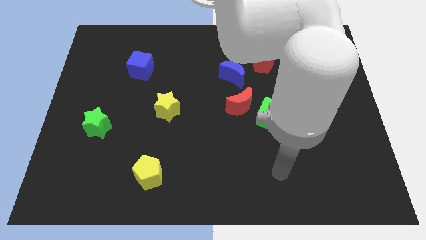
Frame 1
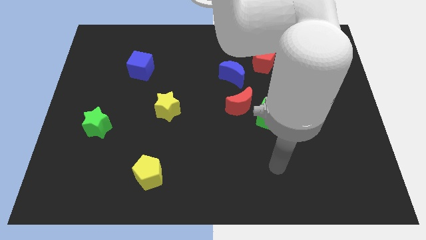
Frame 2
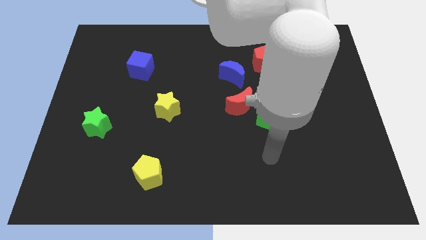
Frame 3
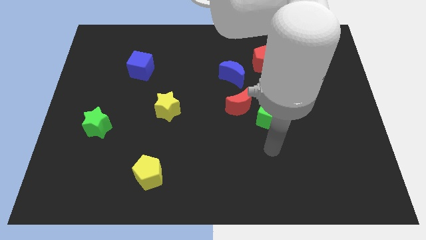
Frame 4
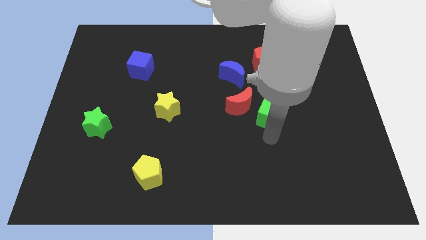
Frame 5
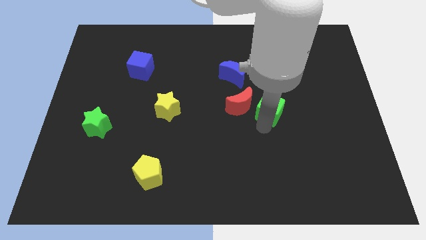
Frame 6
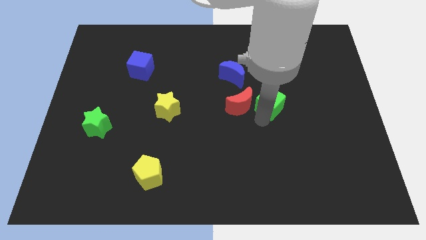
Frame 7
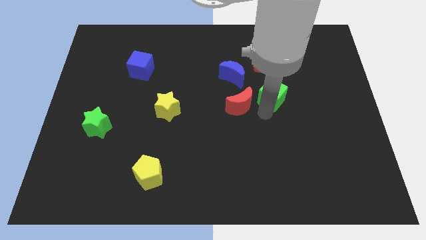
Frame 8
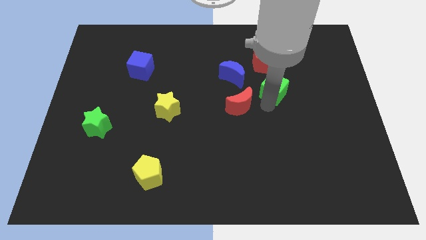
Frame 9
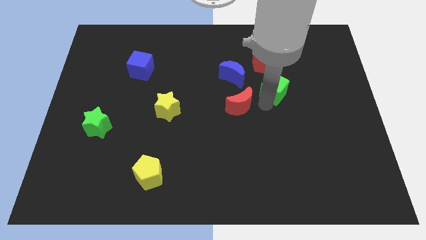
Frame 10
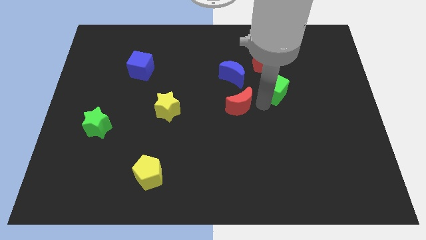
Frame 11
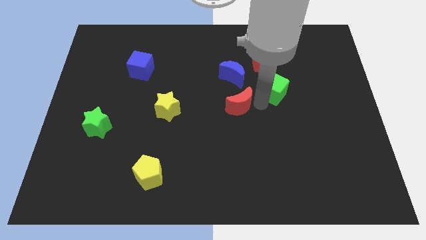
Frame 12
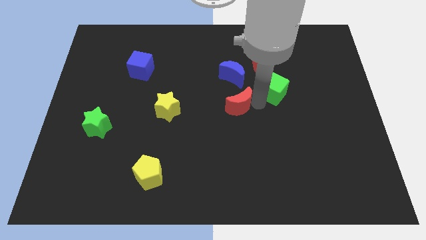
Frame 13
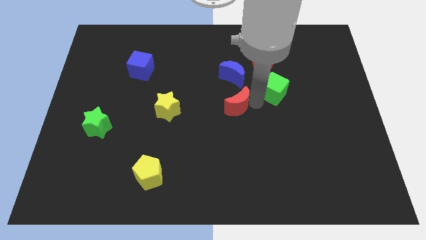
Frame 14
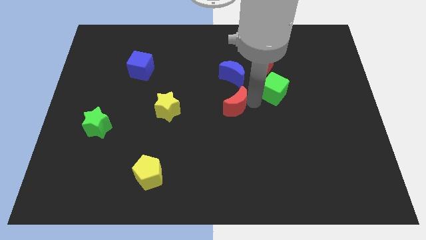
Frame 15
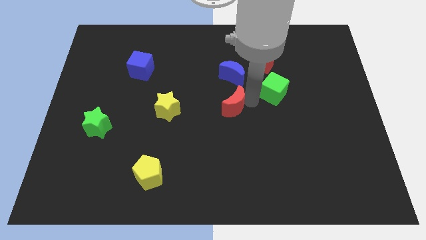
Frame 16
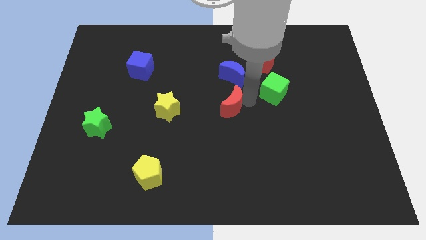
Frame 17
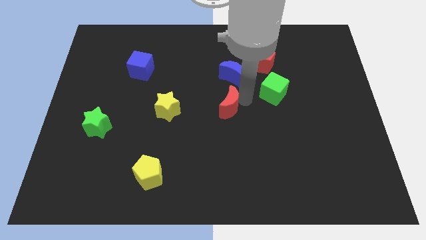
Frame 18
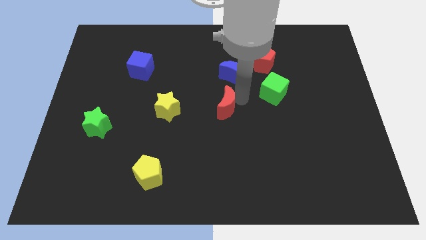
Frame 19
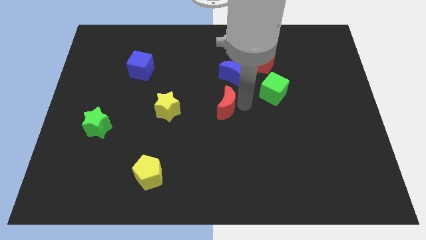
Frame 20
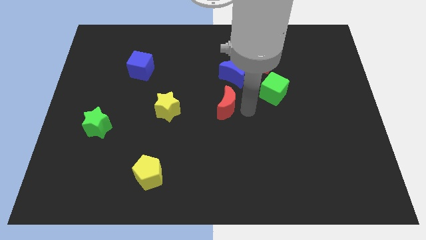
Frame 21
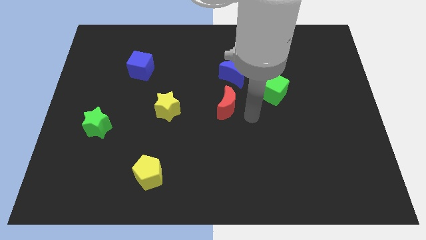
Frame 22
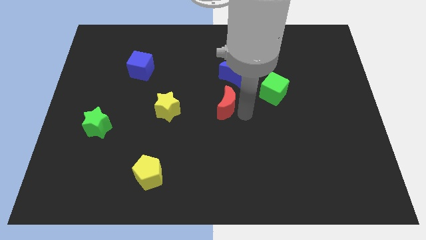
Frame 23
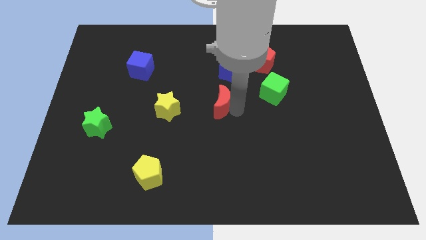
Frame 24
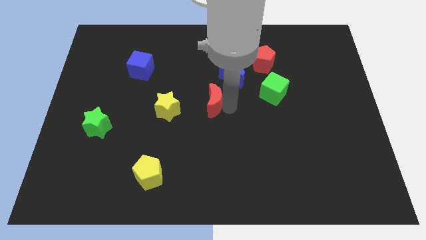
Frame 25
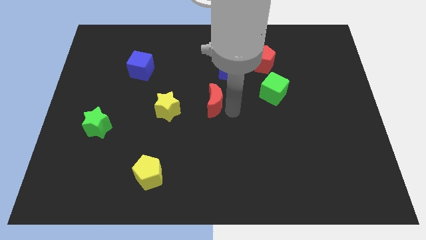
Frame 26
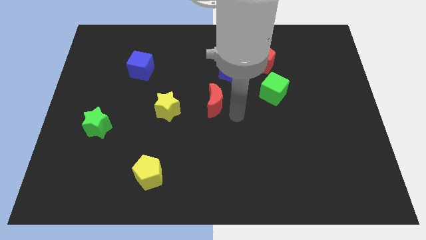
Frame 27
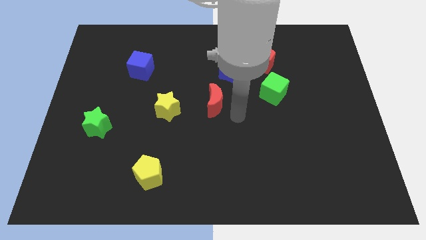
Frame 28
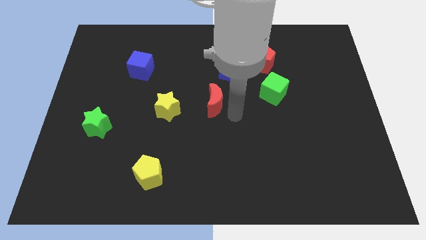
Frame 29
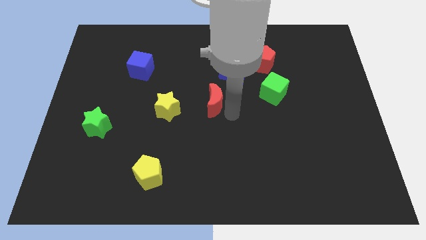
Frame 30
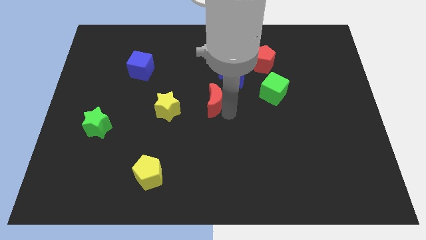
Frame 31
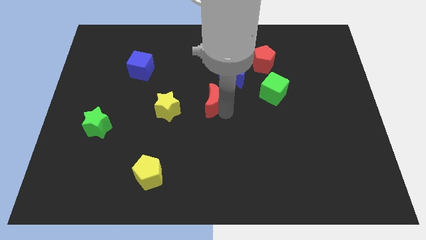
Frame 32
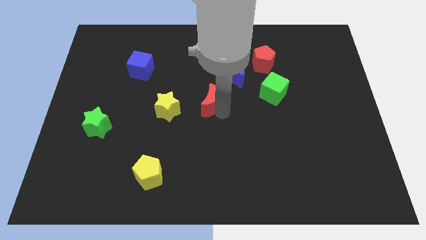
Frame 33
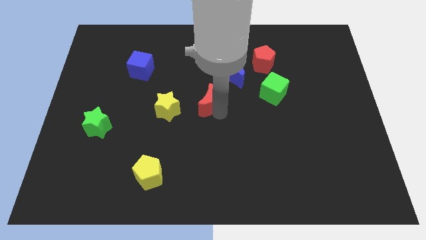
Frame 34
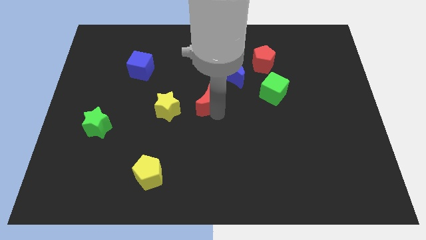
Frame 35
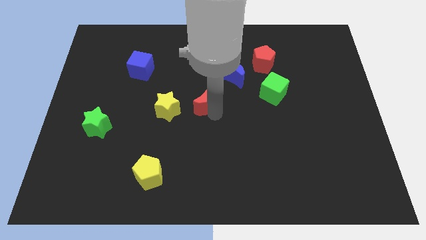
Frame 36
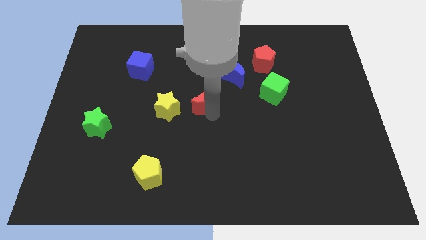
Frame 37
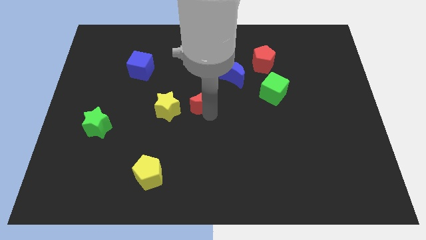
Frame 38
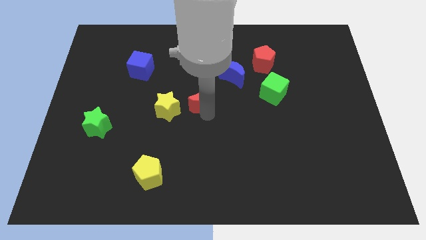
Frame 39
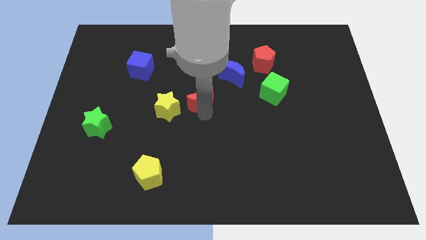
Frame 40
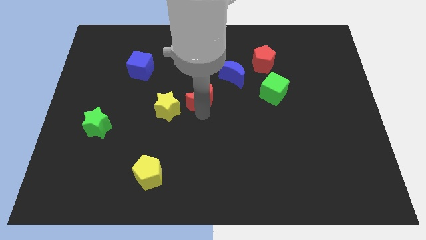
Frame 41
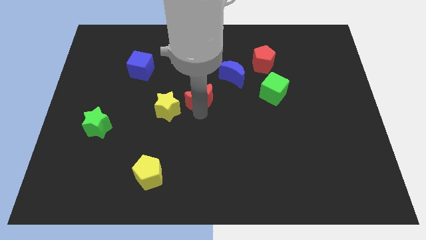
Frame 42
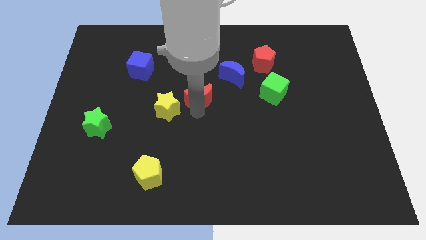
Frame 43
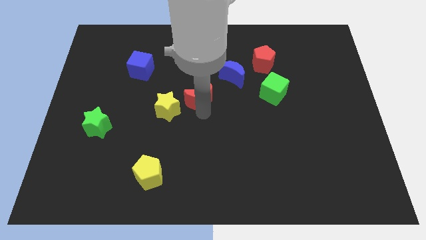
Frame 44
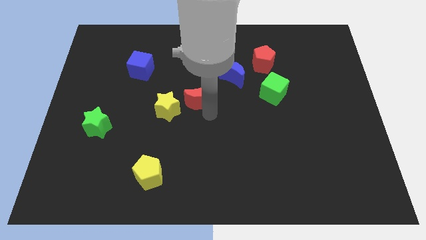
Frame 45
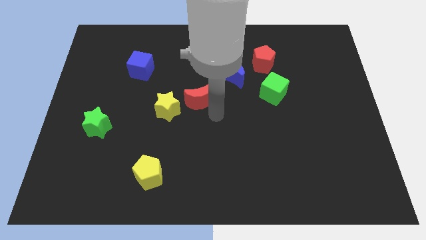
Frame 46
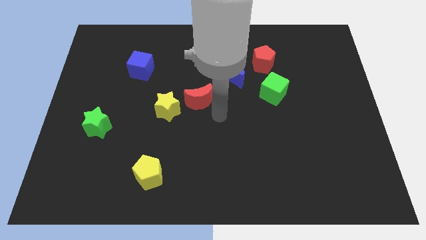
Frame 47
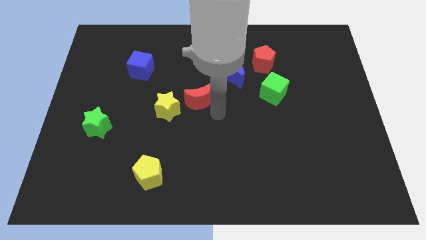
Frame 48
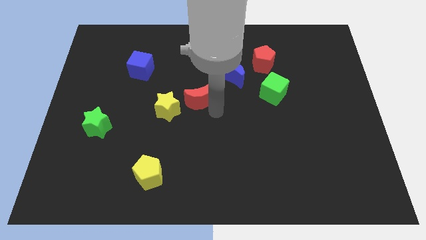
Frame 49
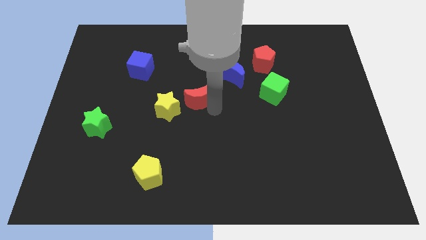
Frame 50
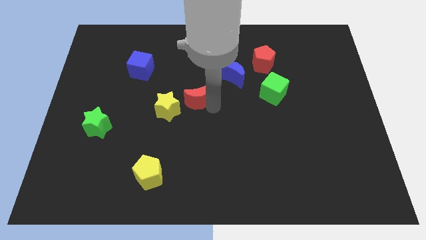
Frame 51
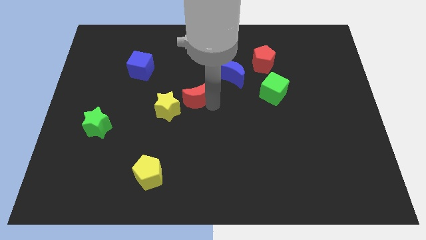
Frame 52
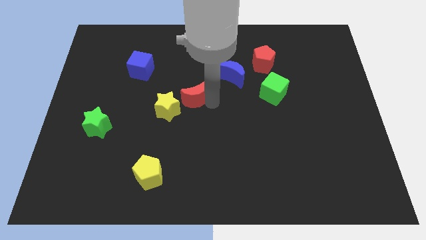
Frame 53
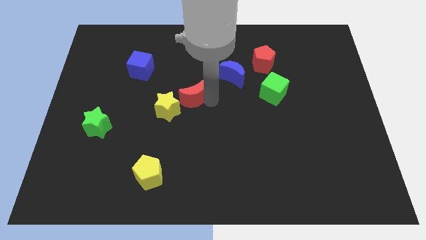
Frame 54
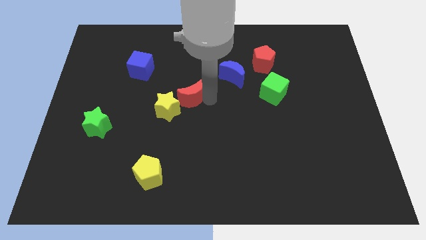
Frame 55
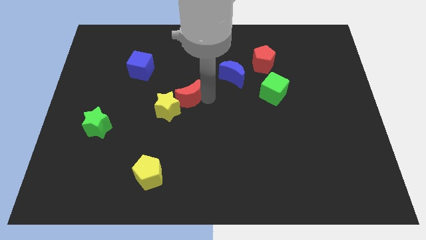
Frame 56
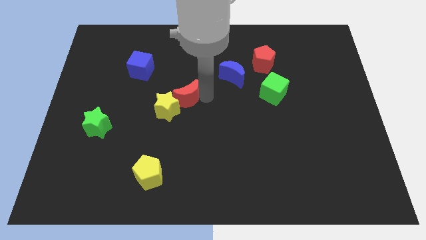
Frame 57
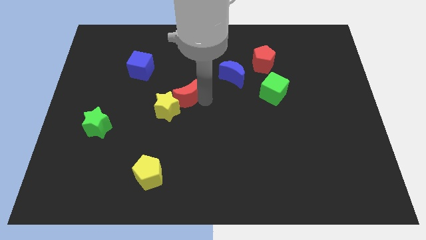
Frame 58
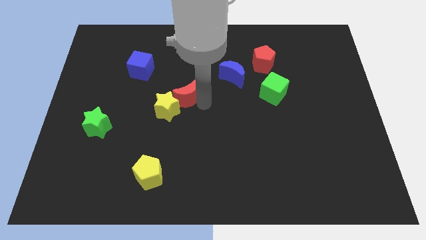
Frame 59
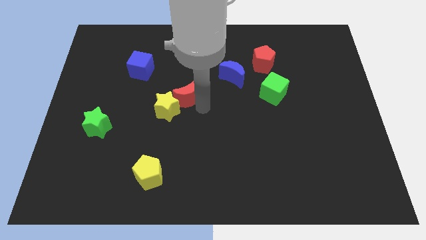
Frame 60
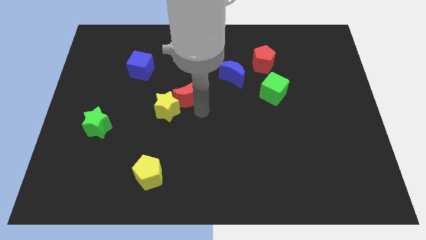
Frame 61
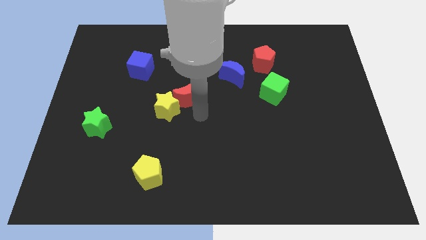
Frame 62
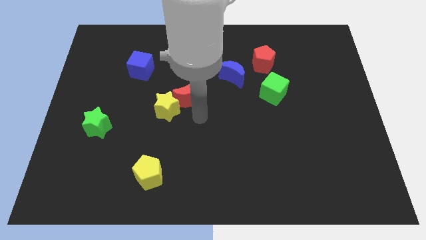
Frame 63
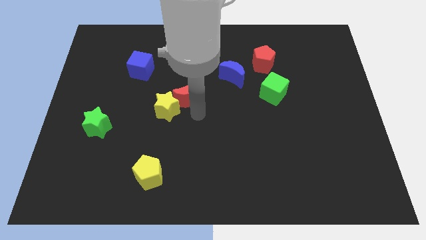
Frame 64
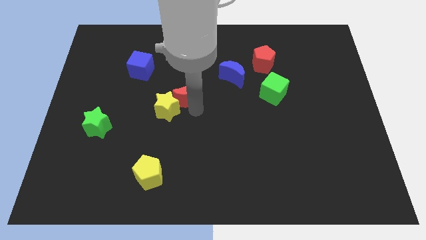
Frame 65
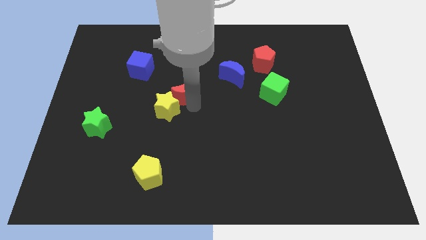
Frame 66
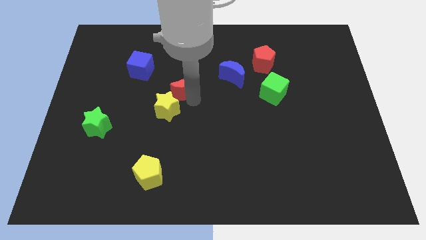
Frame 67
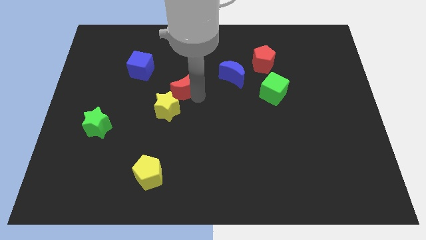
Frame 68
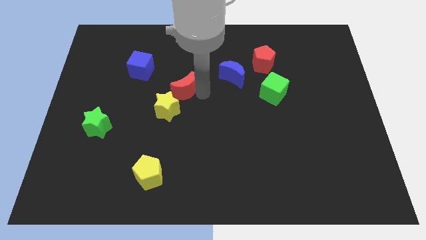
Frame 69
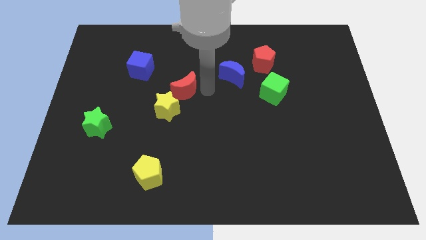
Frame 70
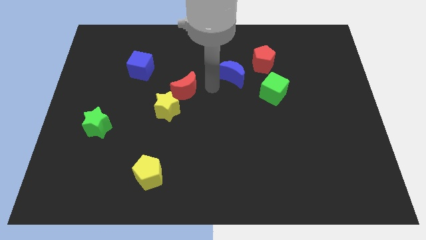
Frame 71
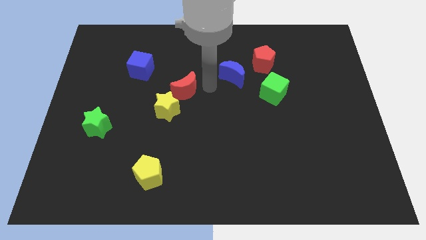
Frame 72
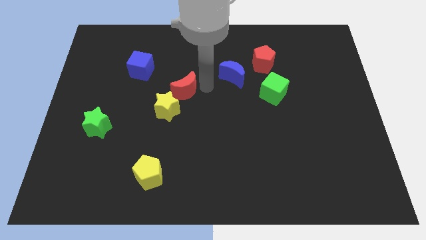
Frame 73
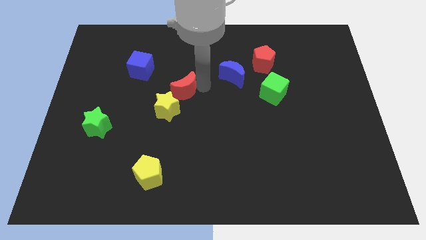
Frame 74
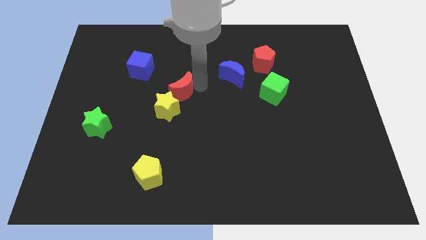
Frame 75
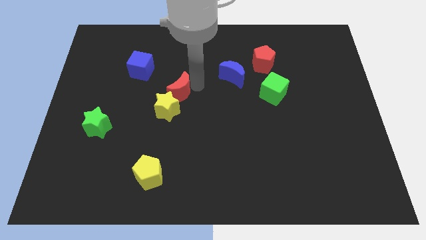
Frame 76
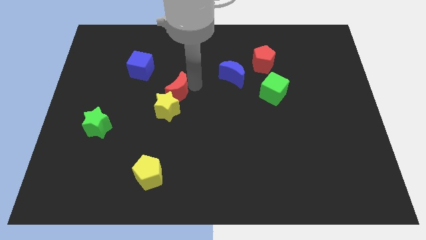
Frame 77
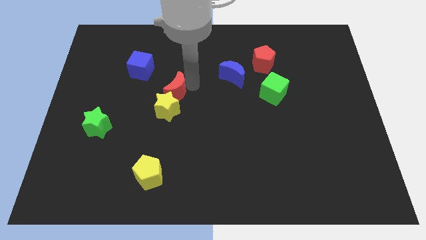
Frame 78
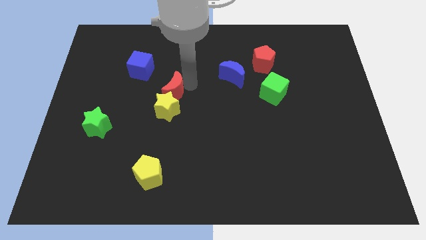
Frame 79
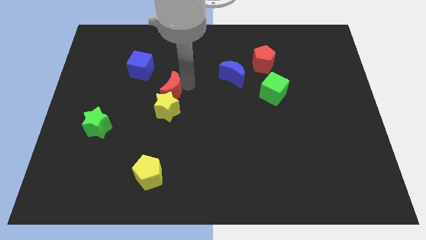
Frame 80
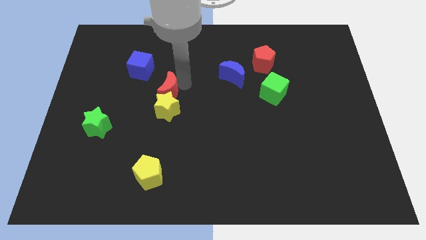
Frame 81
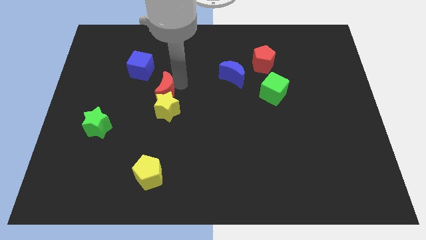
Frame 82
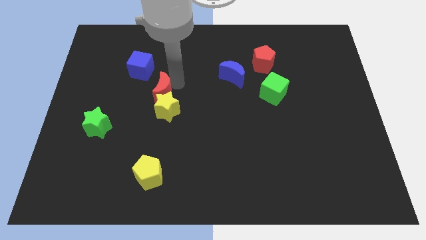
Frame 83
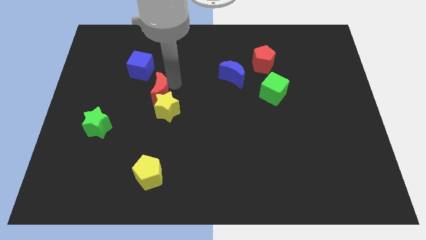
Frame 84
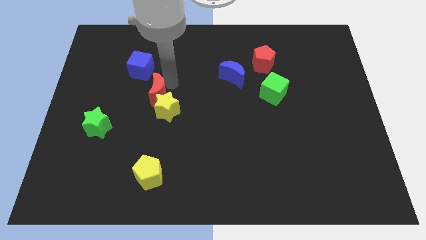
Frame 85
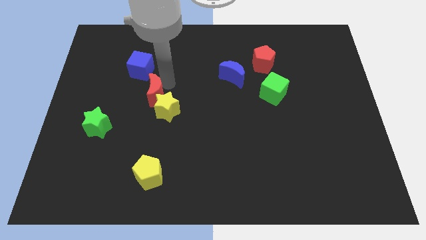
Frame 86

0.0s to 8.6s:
move the red moon to the bottom side of the blue cube
